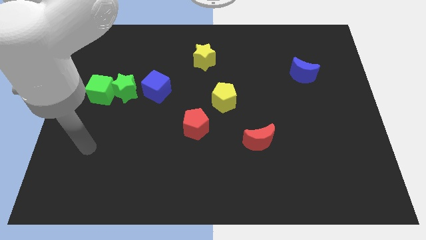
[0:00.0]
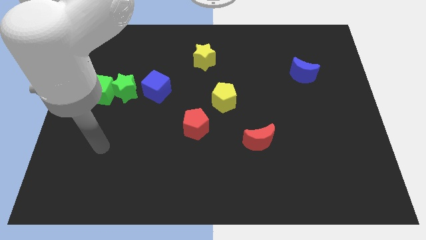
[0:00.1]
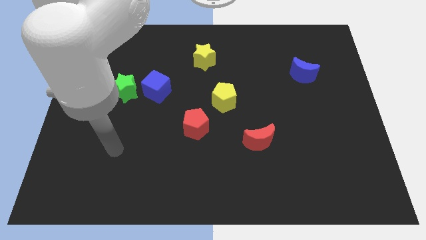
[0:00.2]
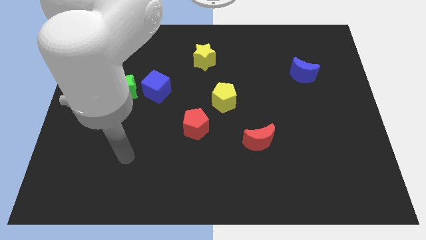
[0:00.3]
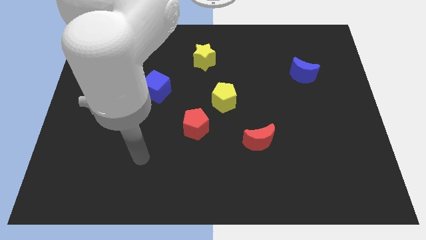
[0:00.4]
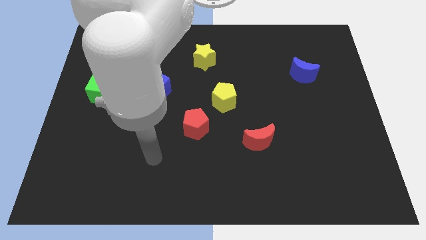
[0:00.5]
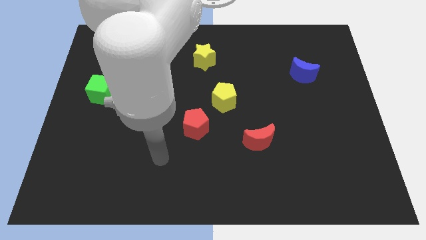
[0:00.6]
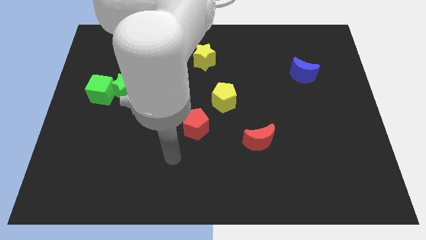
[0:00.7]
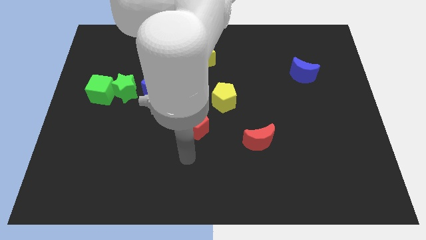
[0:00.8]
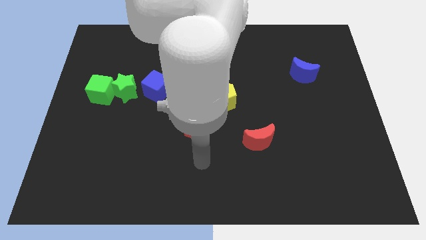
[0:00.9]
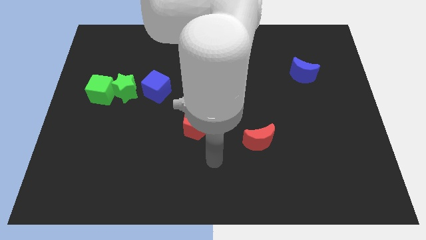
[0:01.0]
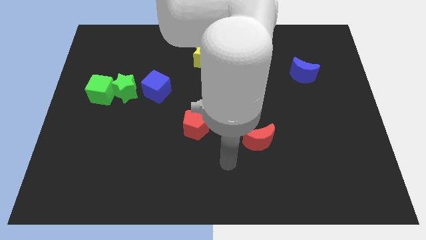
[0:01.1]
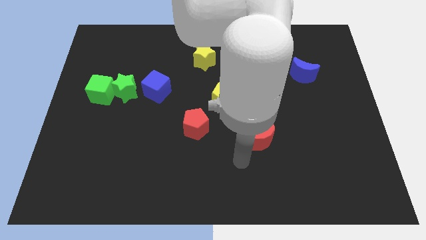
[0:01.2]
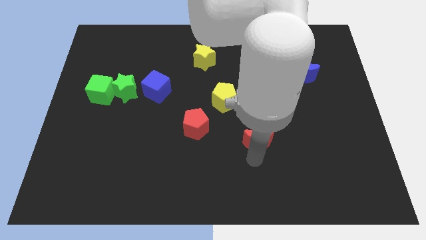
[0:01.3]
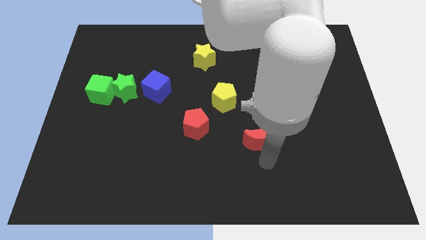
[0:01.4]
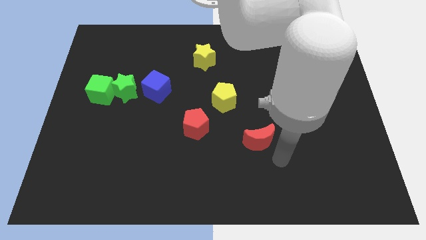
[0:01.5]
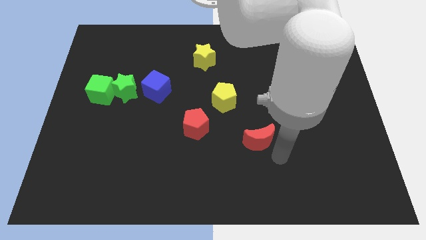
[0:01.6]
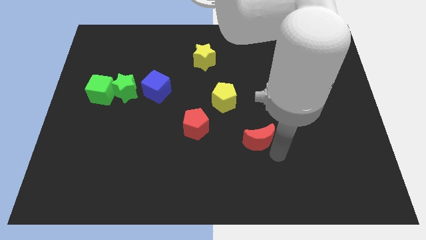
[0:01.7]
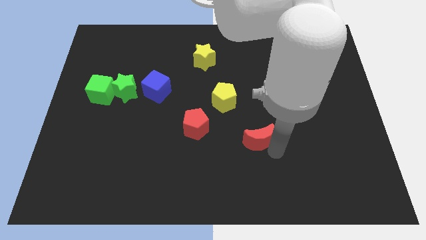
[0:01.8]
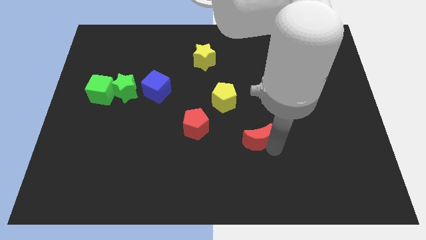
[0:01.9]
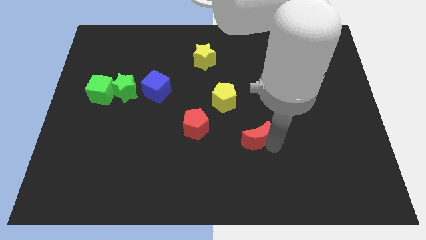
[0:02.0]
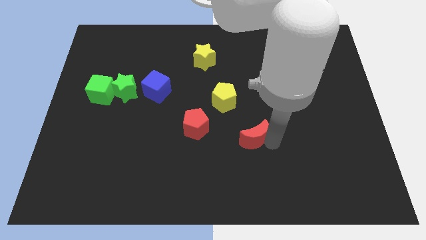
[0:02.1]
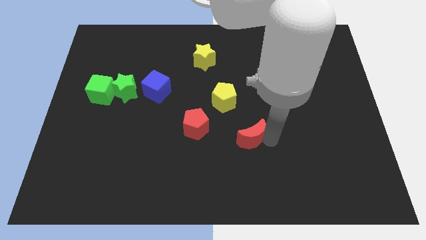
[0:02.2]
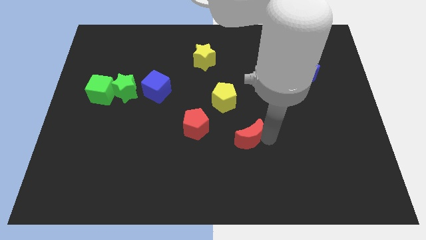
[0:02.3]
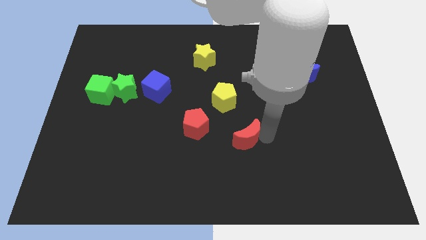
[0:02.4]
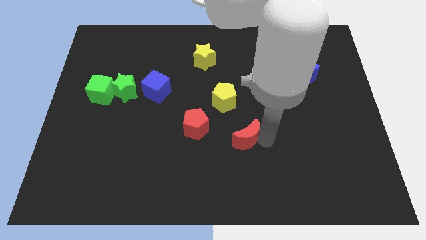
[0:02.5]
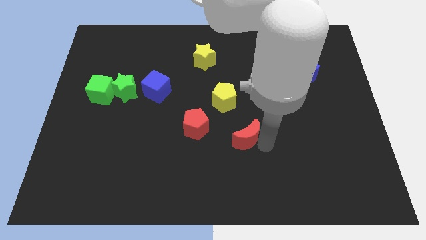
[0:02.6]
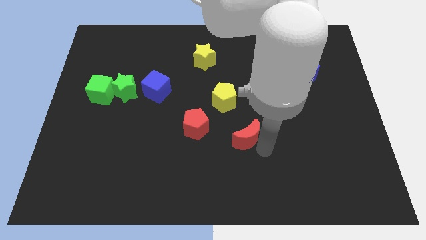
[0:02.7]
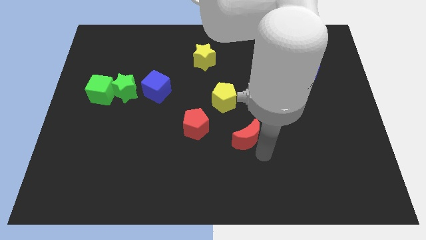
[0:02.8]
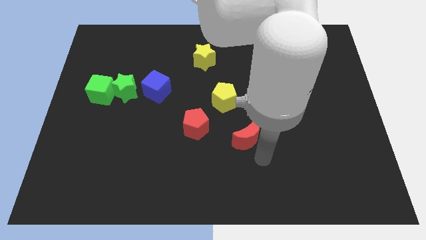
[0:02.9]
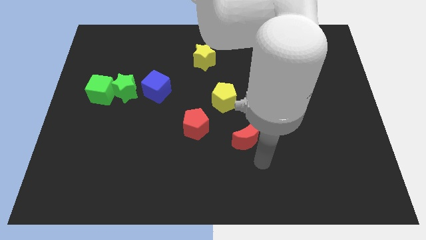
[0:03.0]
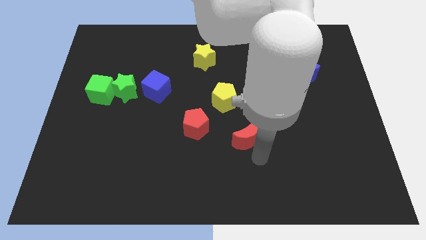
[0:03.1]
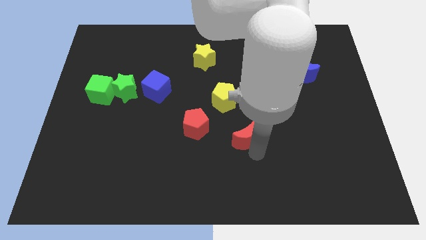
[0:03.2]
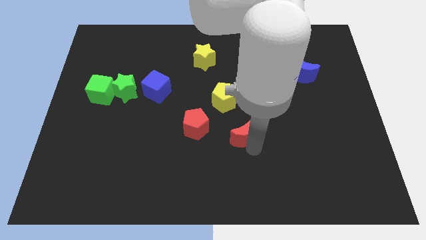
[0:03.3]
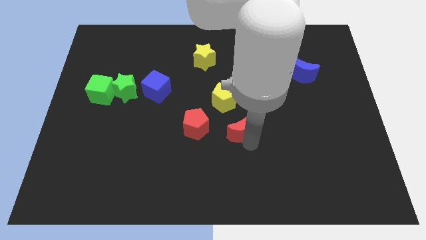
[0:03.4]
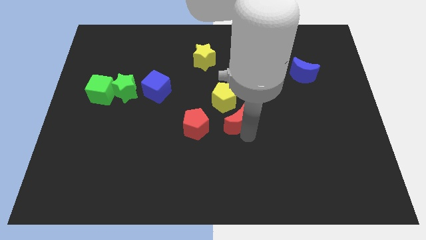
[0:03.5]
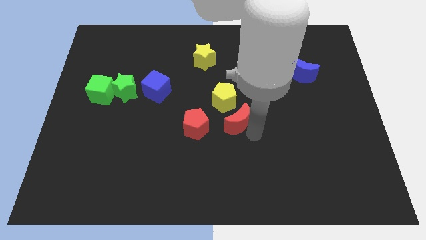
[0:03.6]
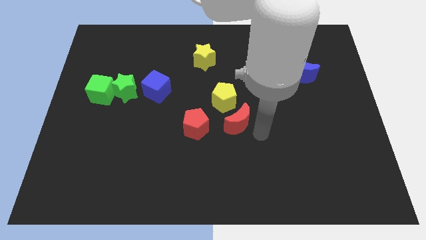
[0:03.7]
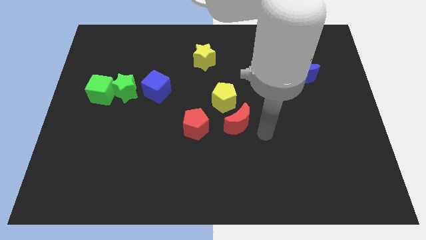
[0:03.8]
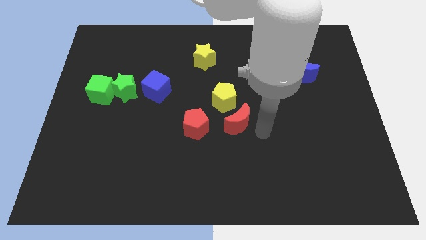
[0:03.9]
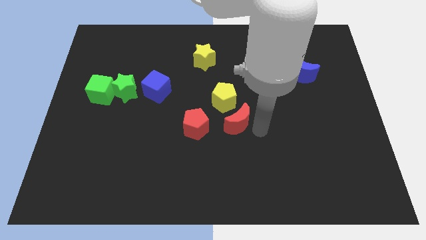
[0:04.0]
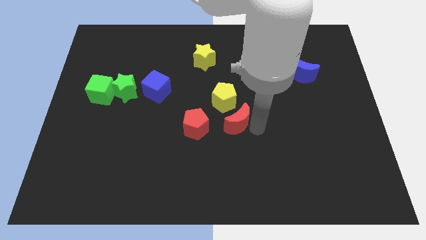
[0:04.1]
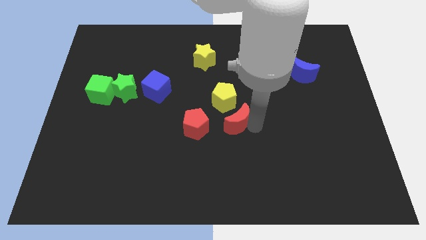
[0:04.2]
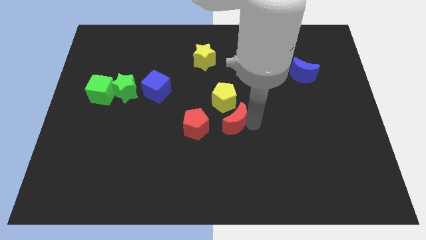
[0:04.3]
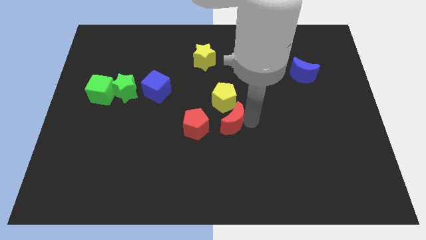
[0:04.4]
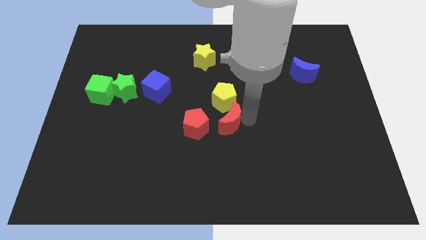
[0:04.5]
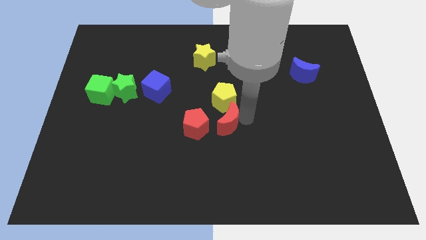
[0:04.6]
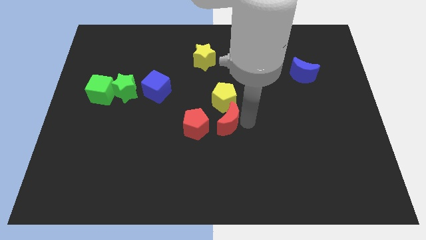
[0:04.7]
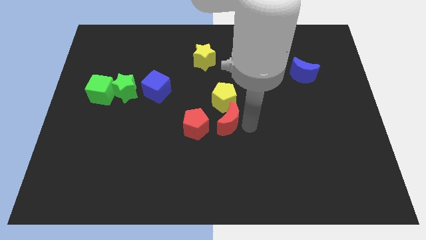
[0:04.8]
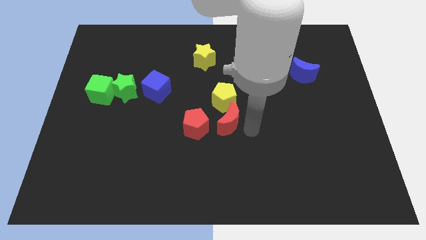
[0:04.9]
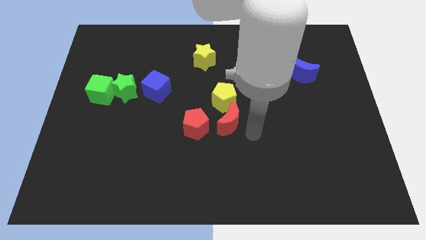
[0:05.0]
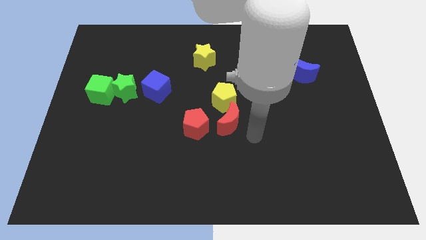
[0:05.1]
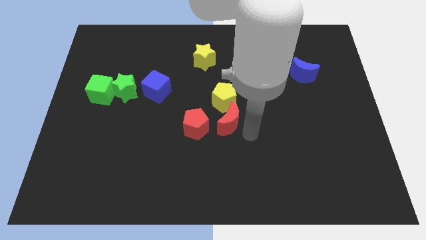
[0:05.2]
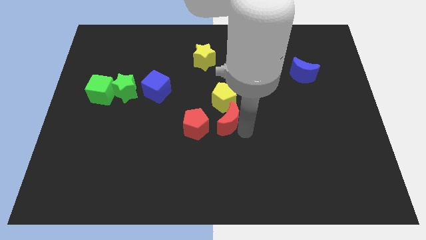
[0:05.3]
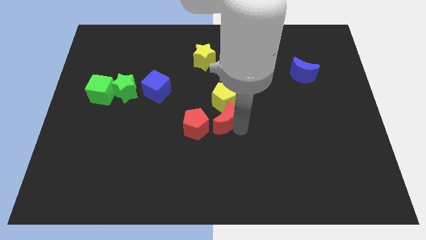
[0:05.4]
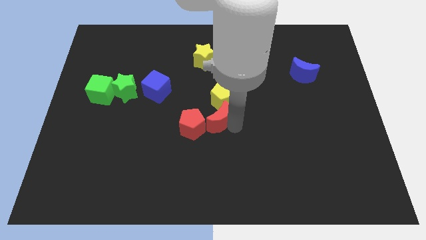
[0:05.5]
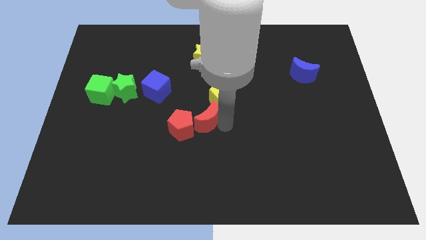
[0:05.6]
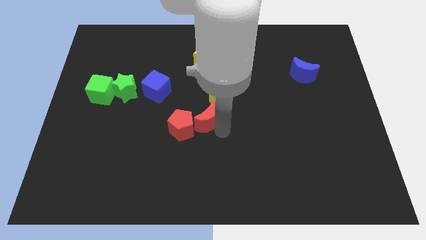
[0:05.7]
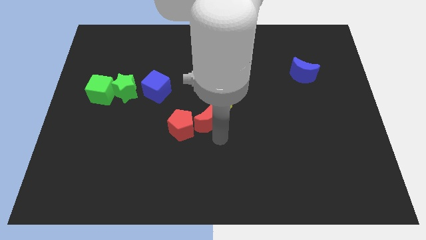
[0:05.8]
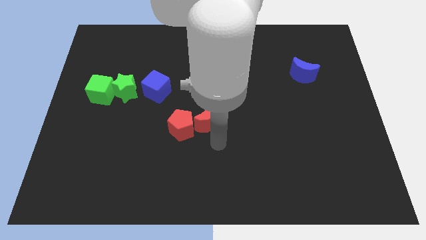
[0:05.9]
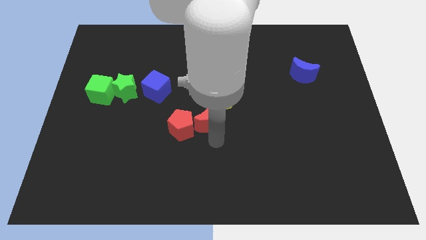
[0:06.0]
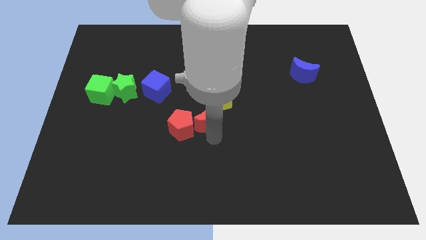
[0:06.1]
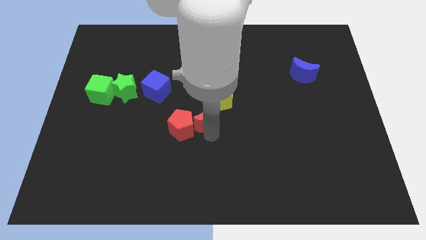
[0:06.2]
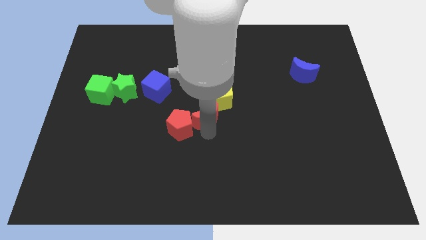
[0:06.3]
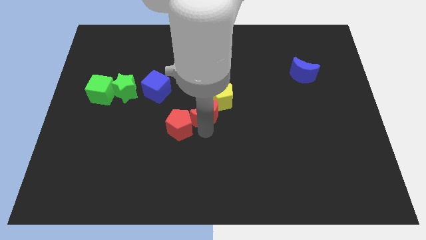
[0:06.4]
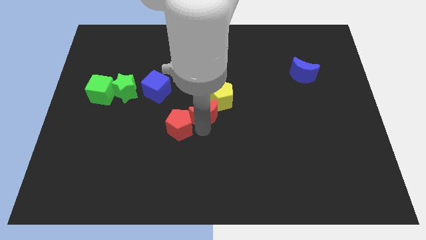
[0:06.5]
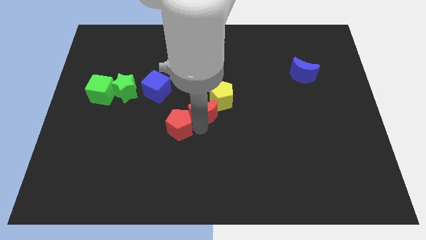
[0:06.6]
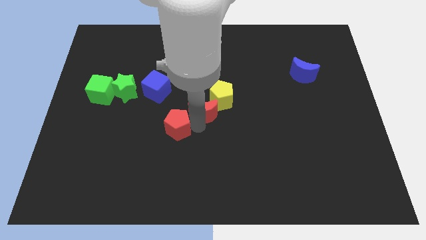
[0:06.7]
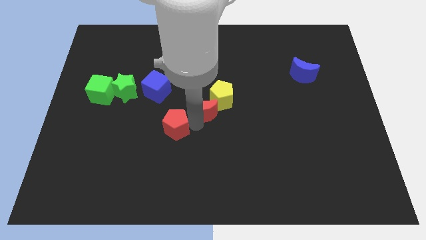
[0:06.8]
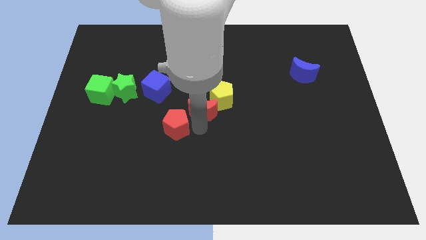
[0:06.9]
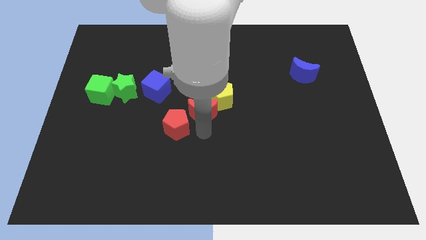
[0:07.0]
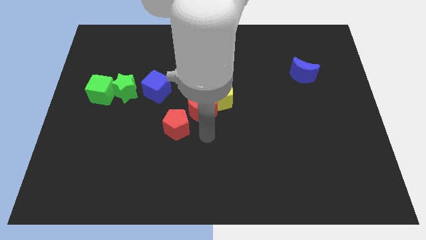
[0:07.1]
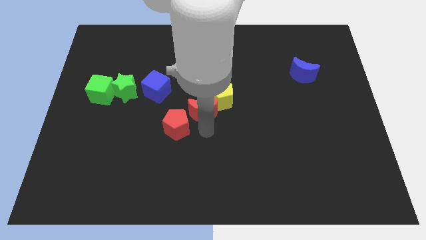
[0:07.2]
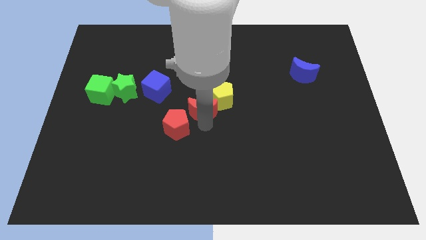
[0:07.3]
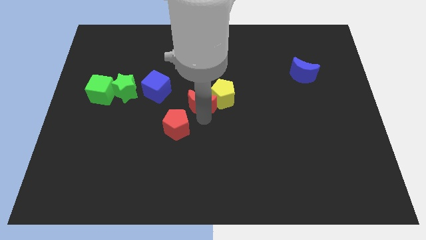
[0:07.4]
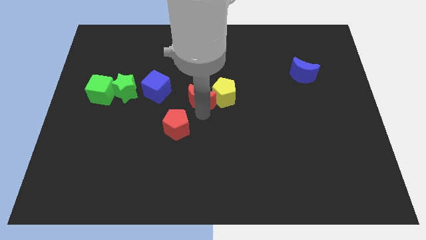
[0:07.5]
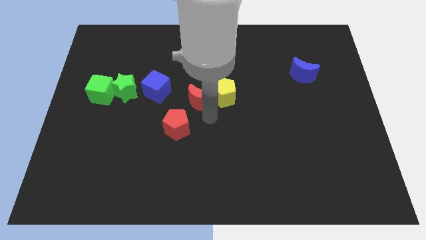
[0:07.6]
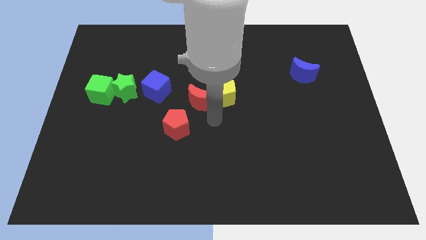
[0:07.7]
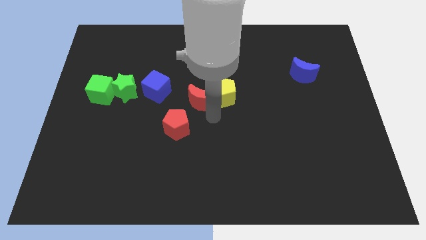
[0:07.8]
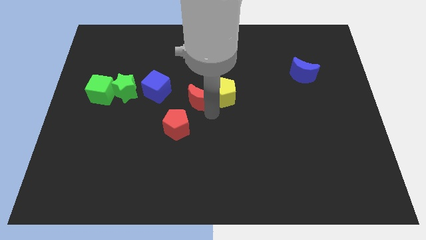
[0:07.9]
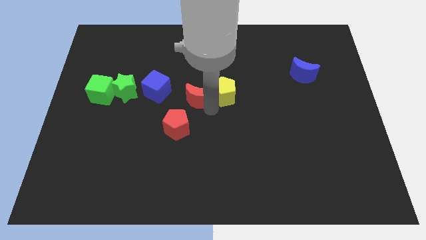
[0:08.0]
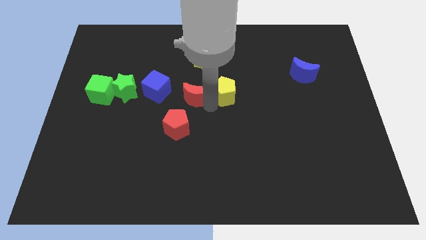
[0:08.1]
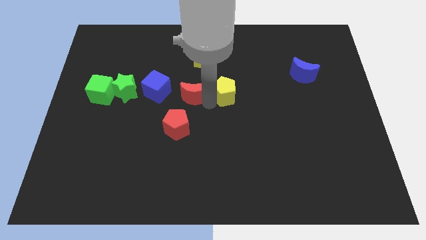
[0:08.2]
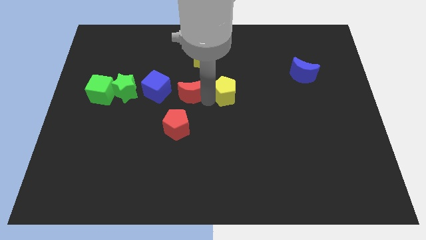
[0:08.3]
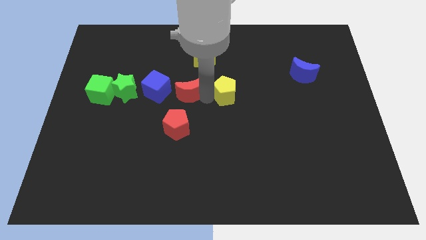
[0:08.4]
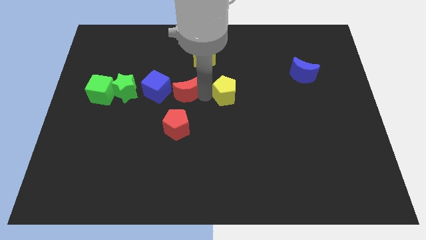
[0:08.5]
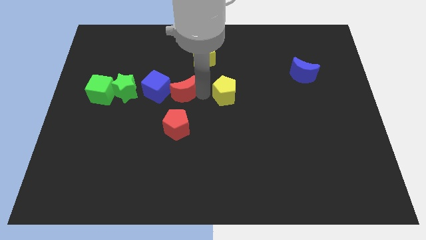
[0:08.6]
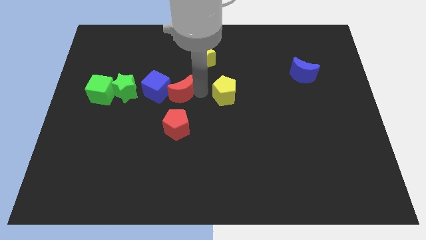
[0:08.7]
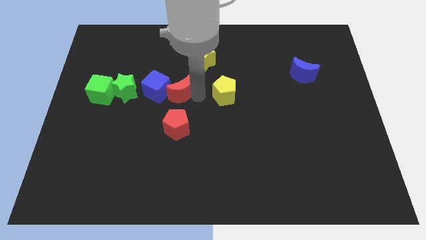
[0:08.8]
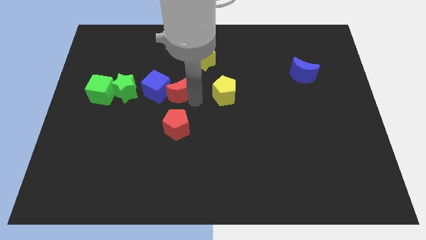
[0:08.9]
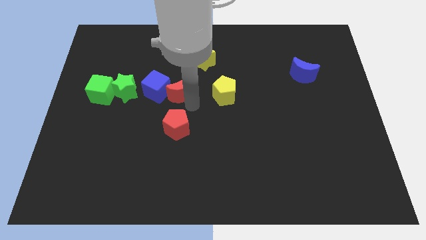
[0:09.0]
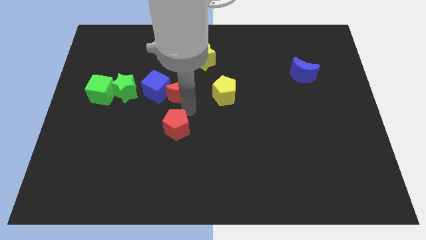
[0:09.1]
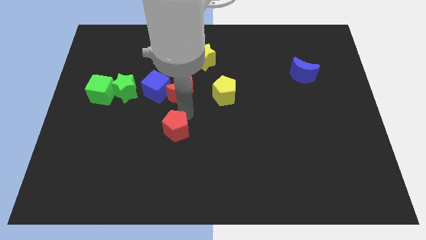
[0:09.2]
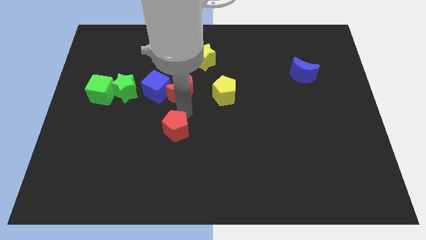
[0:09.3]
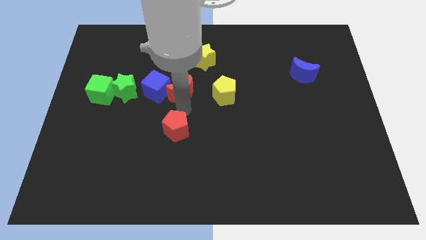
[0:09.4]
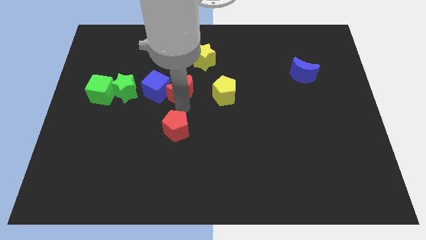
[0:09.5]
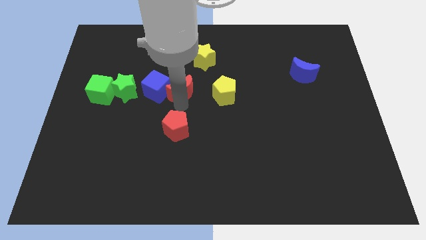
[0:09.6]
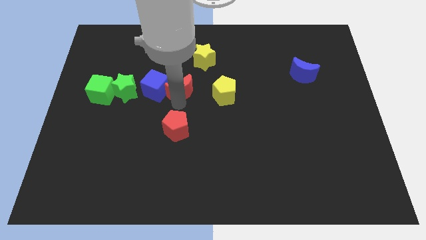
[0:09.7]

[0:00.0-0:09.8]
put the red moon diagonally up and to the right of the blue cube
